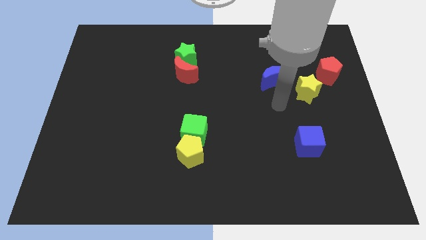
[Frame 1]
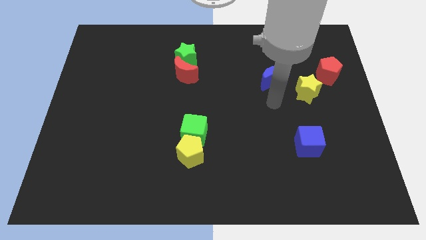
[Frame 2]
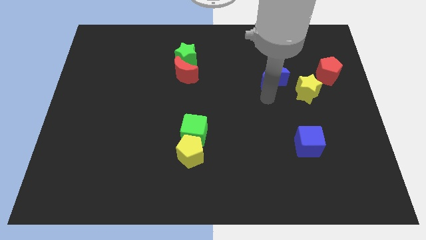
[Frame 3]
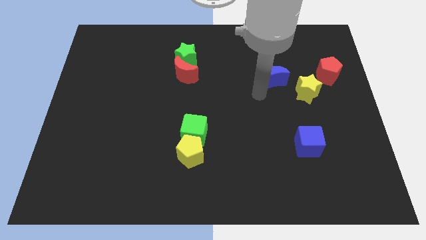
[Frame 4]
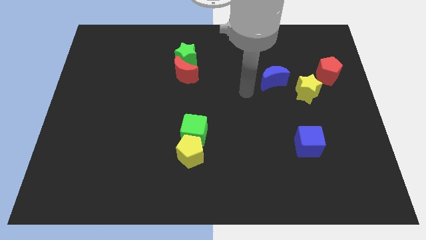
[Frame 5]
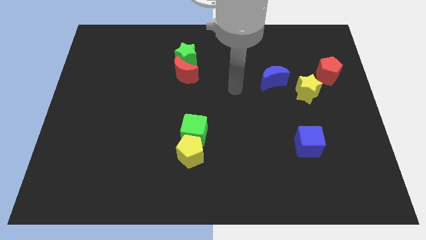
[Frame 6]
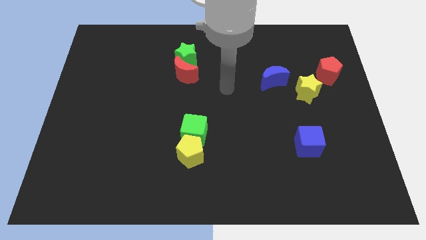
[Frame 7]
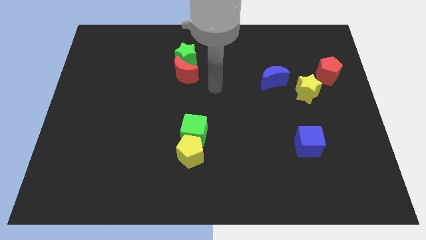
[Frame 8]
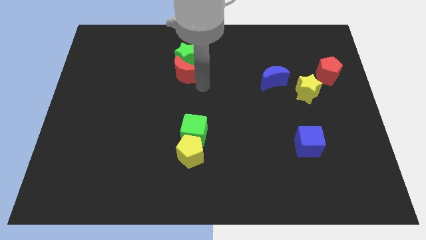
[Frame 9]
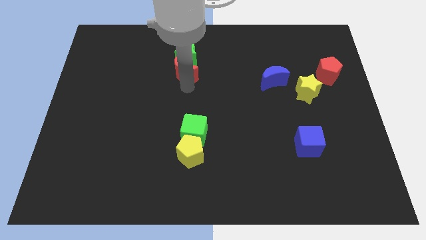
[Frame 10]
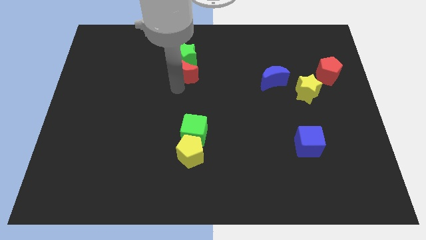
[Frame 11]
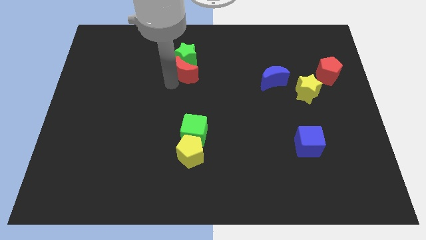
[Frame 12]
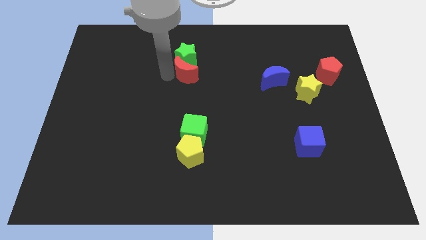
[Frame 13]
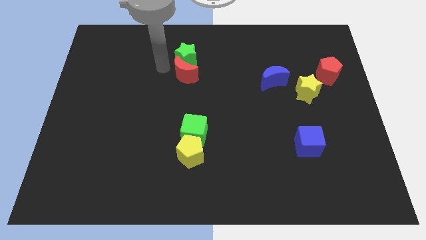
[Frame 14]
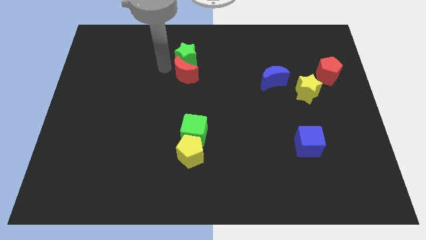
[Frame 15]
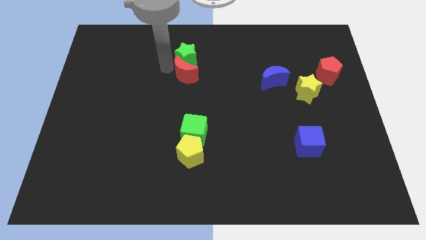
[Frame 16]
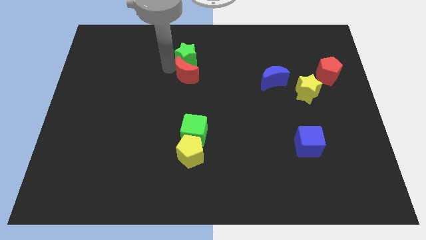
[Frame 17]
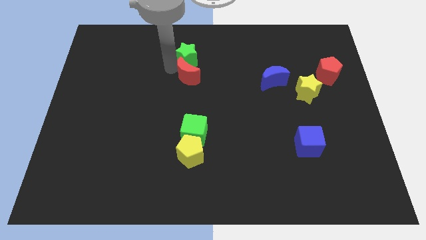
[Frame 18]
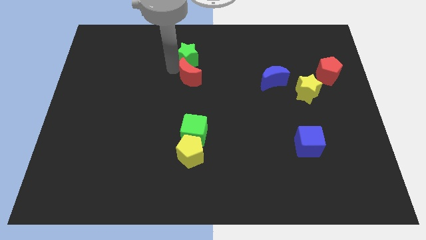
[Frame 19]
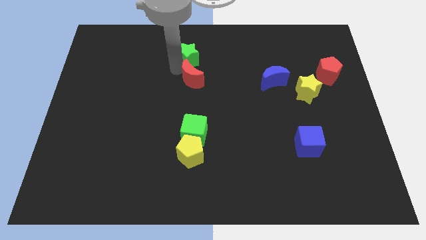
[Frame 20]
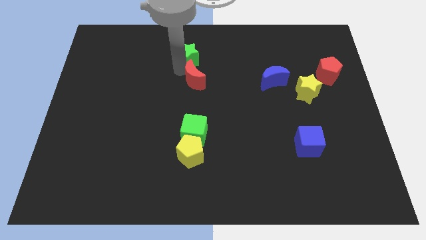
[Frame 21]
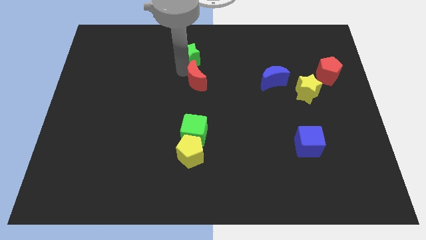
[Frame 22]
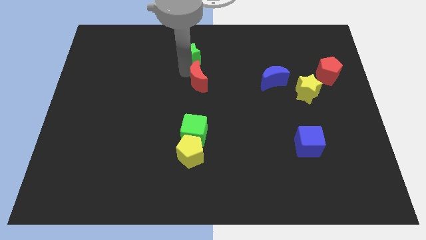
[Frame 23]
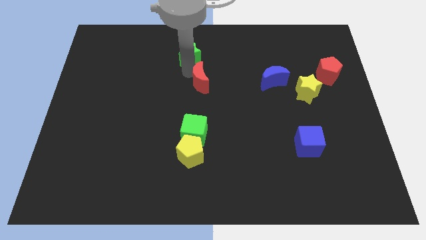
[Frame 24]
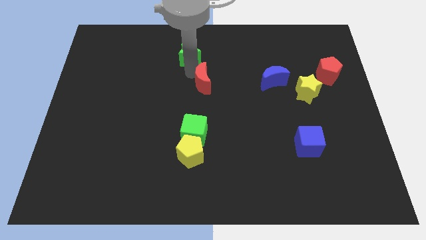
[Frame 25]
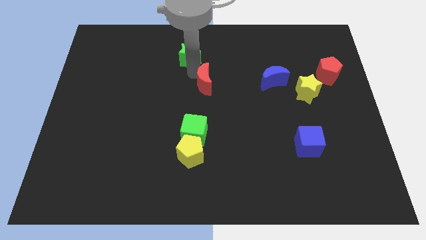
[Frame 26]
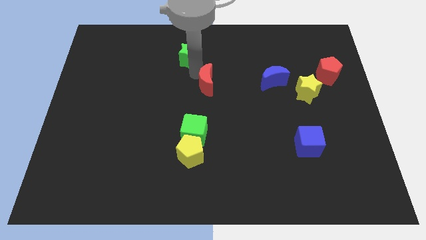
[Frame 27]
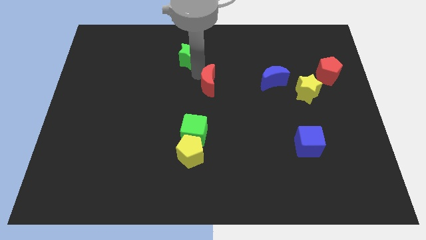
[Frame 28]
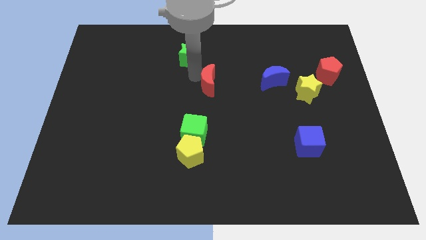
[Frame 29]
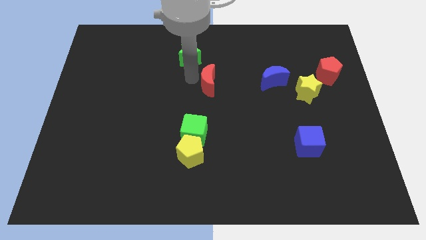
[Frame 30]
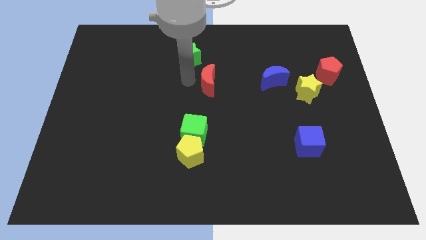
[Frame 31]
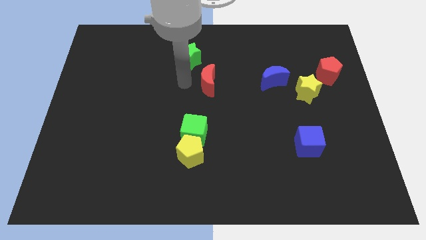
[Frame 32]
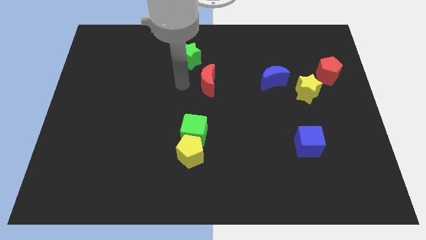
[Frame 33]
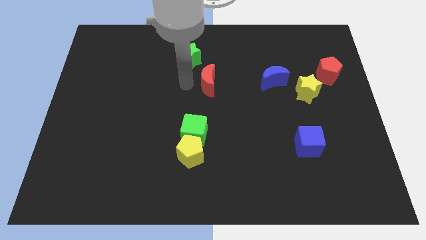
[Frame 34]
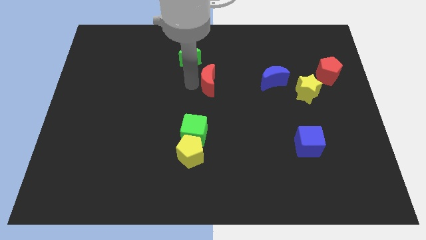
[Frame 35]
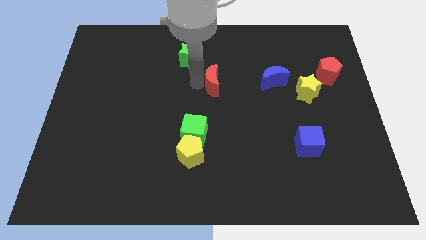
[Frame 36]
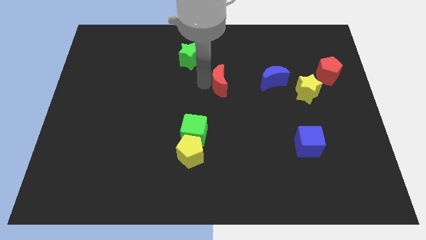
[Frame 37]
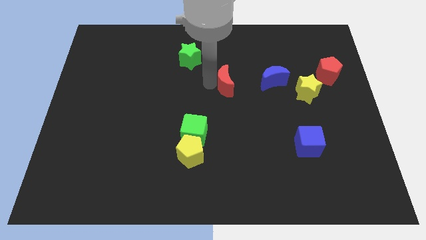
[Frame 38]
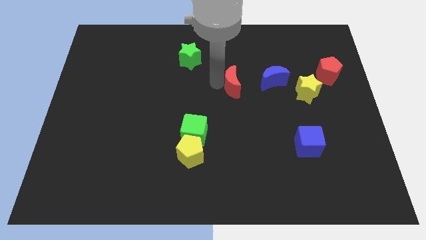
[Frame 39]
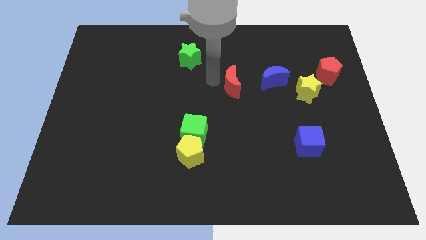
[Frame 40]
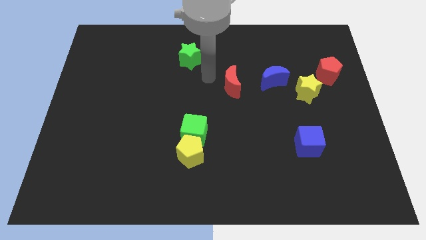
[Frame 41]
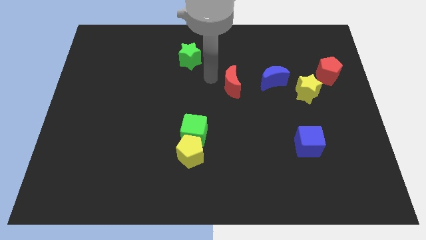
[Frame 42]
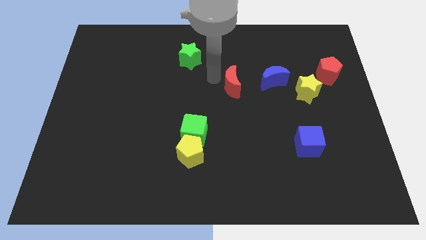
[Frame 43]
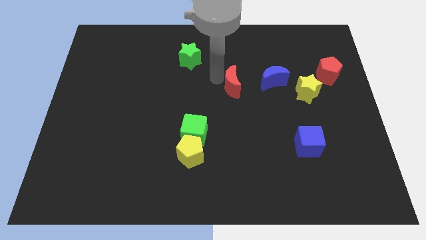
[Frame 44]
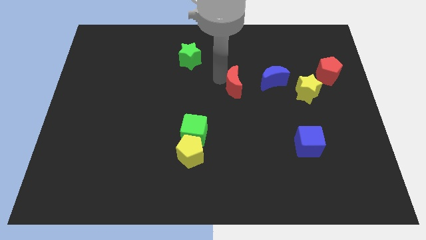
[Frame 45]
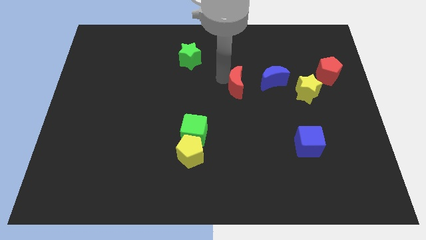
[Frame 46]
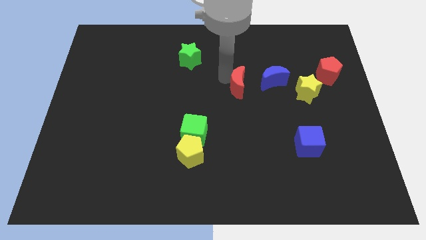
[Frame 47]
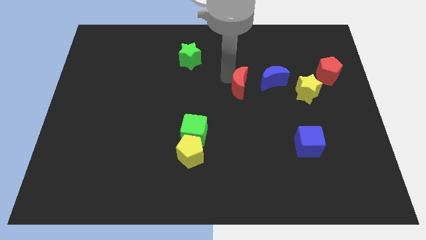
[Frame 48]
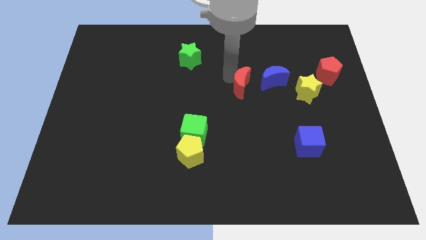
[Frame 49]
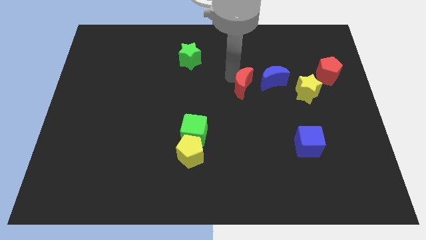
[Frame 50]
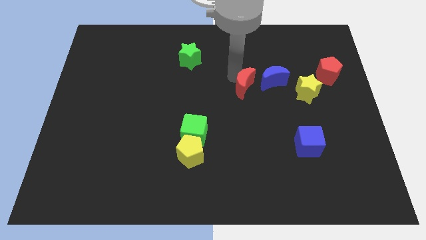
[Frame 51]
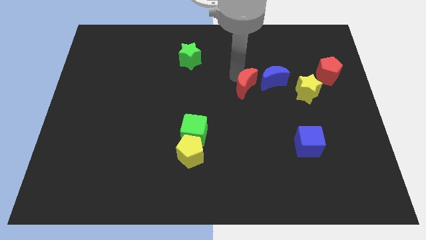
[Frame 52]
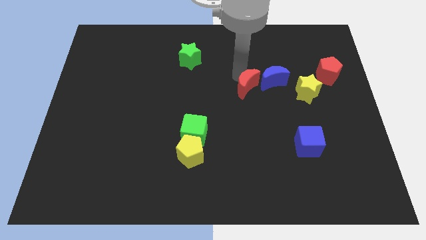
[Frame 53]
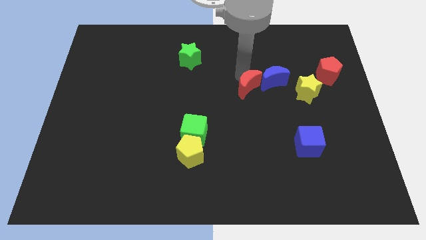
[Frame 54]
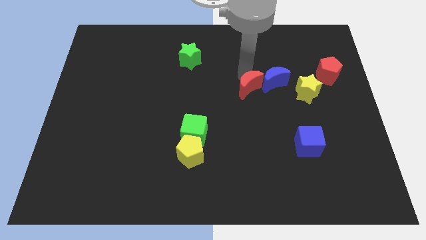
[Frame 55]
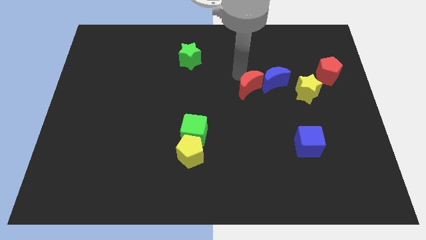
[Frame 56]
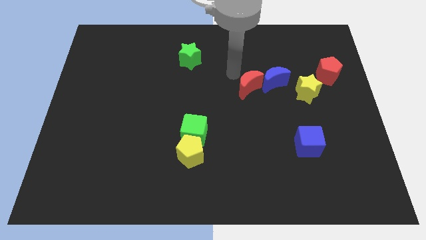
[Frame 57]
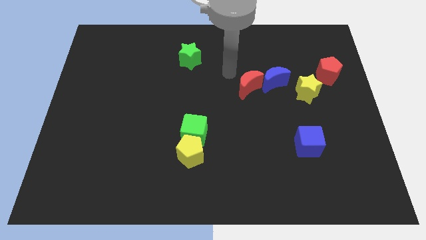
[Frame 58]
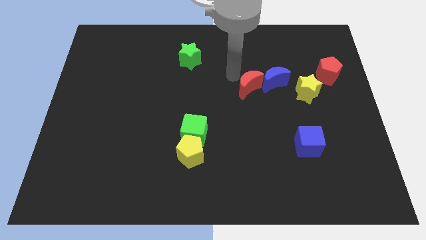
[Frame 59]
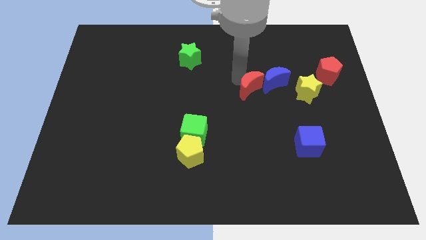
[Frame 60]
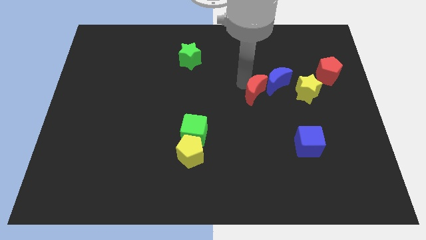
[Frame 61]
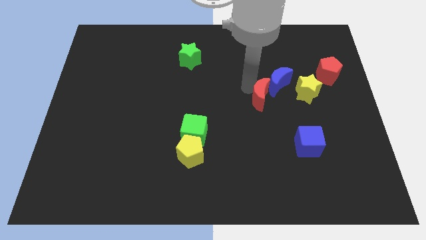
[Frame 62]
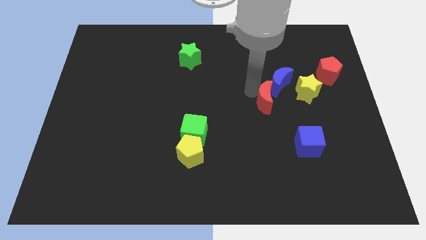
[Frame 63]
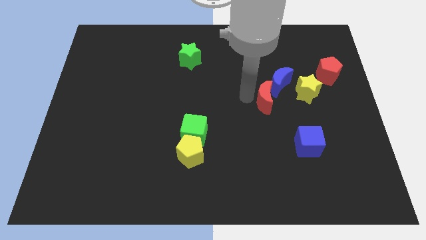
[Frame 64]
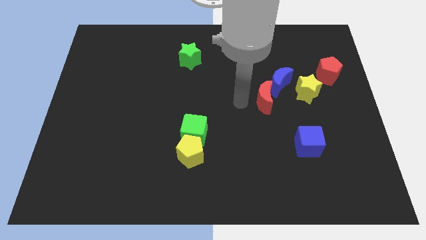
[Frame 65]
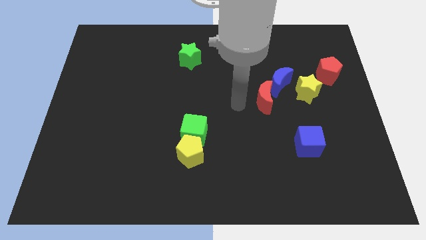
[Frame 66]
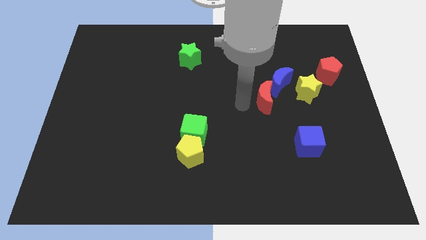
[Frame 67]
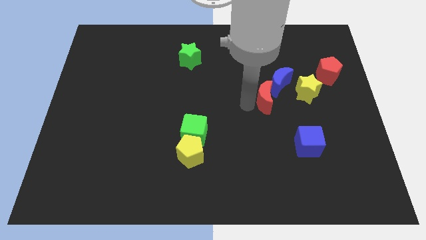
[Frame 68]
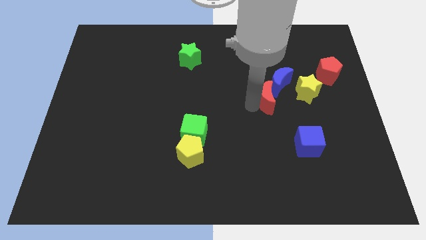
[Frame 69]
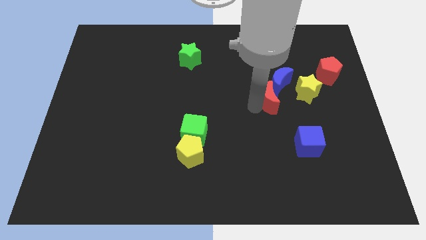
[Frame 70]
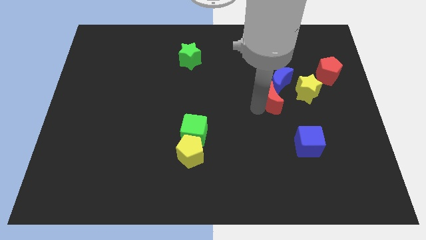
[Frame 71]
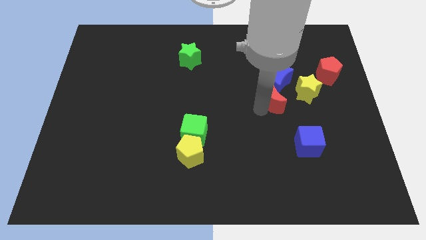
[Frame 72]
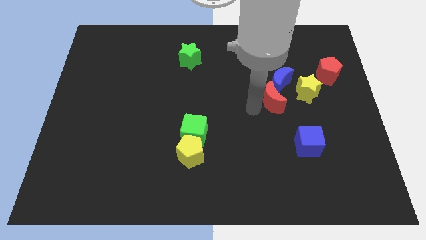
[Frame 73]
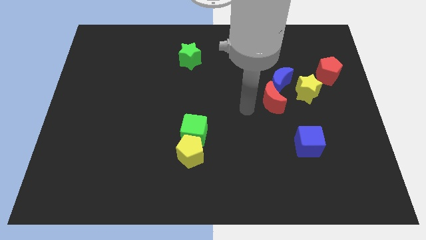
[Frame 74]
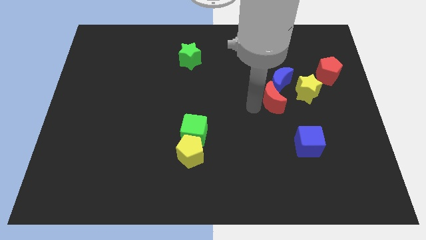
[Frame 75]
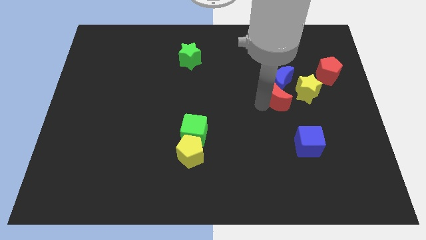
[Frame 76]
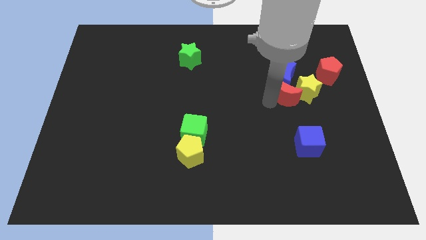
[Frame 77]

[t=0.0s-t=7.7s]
slide the red moon next to the yellow star
